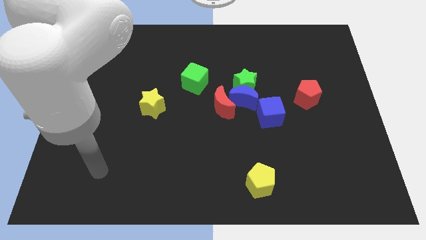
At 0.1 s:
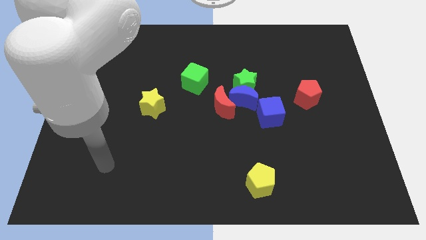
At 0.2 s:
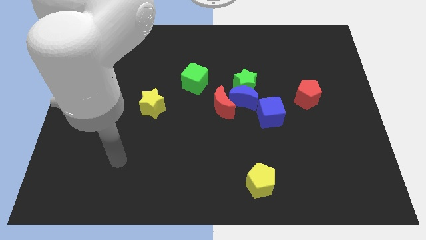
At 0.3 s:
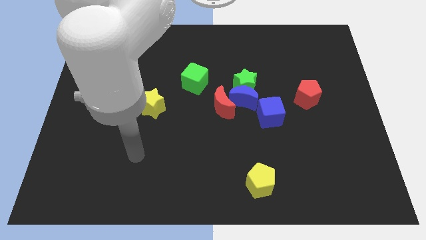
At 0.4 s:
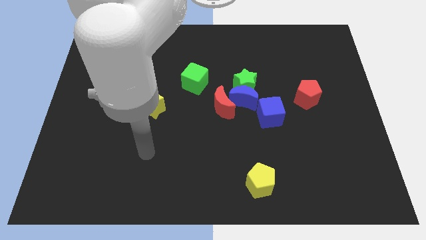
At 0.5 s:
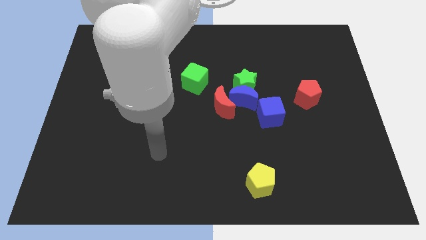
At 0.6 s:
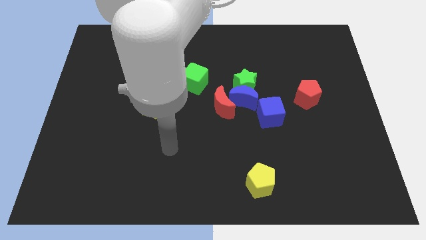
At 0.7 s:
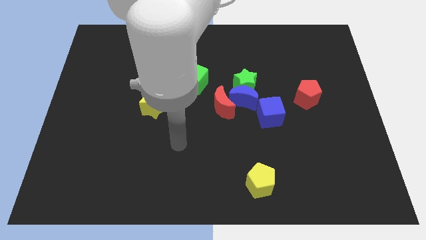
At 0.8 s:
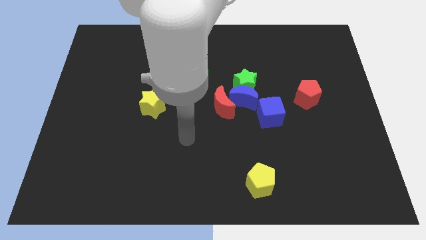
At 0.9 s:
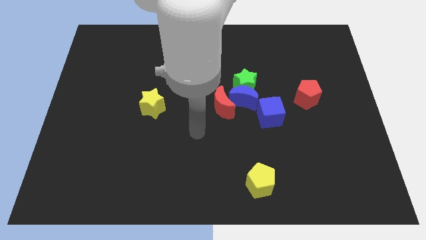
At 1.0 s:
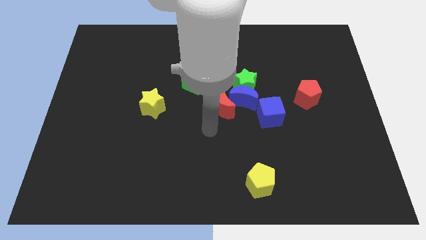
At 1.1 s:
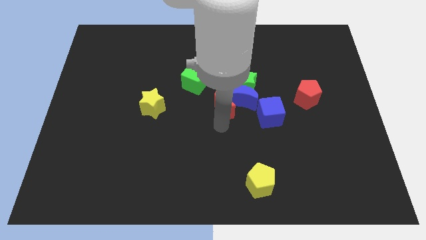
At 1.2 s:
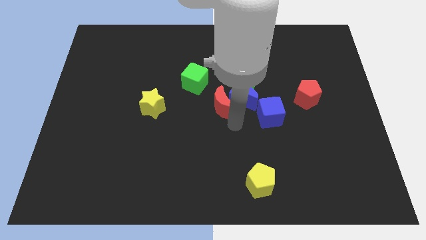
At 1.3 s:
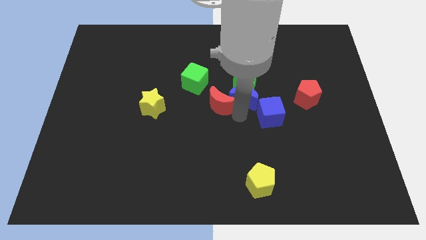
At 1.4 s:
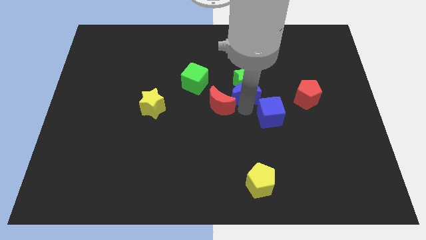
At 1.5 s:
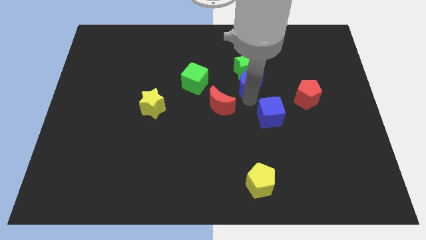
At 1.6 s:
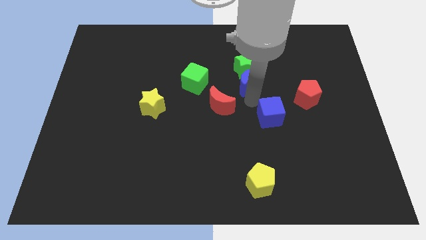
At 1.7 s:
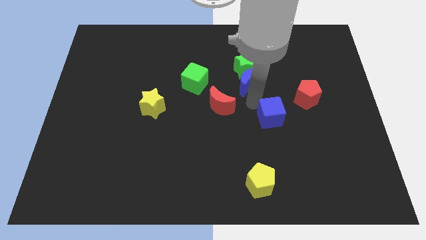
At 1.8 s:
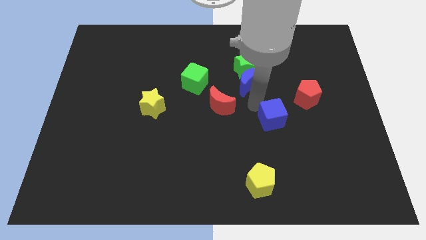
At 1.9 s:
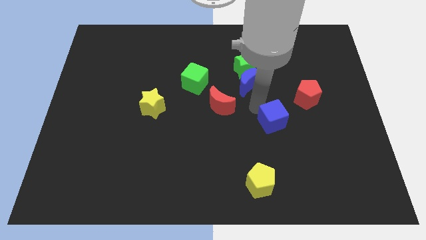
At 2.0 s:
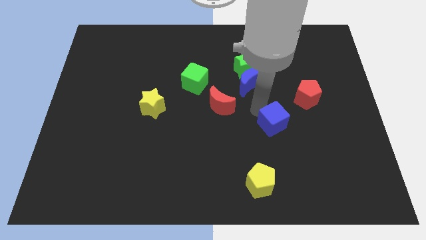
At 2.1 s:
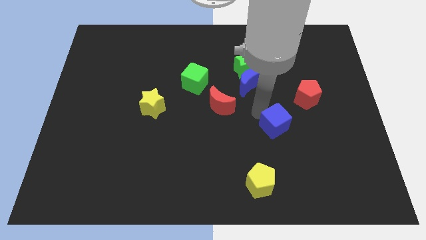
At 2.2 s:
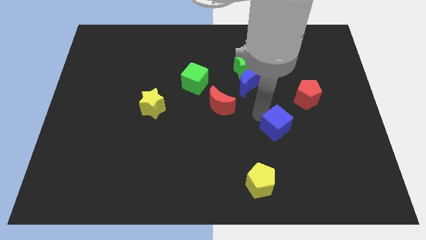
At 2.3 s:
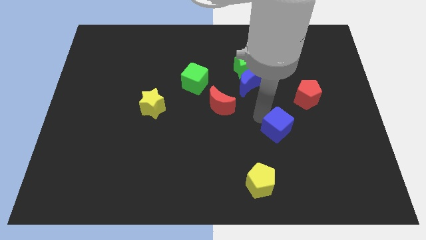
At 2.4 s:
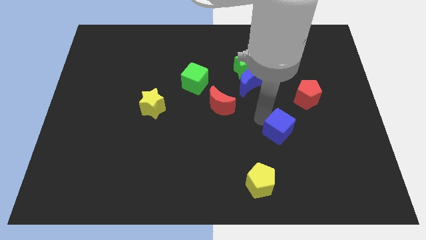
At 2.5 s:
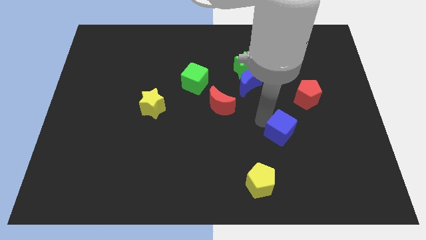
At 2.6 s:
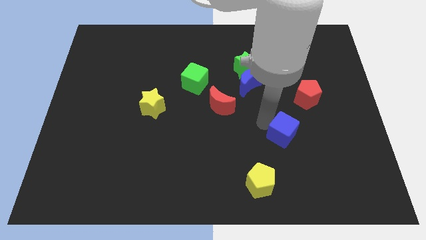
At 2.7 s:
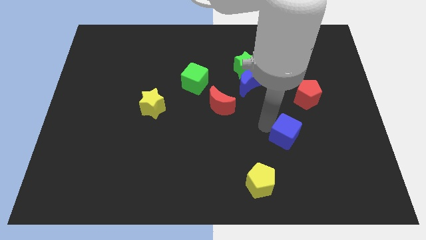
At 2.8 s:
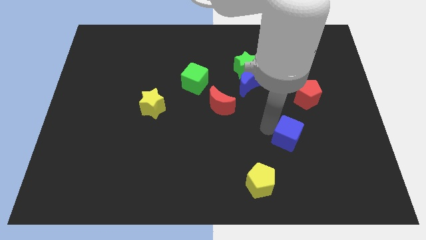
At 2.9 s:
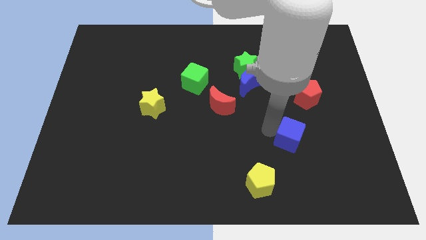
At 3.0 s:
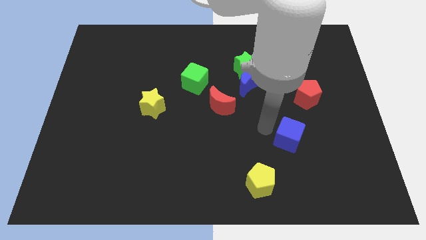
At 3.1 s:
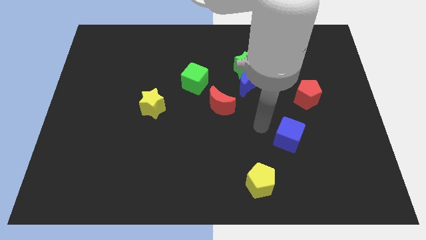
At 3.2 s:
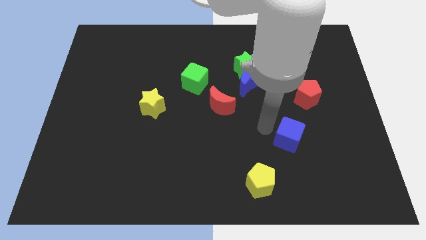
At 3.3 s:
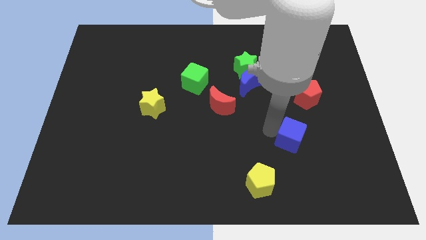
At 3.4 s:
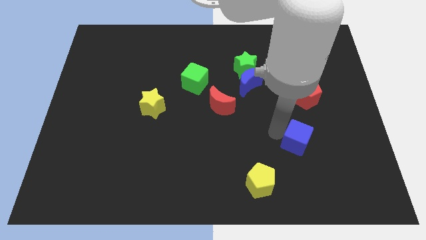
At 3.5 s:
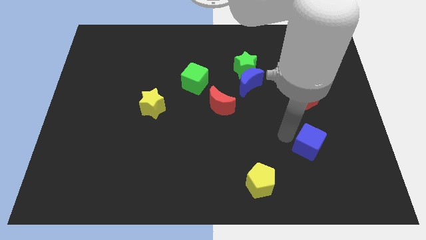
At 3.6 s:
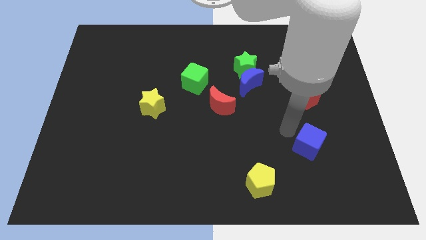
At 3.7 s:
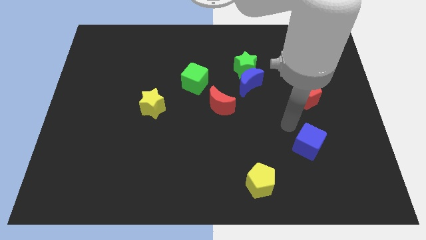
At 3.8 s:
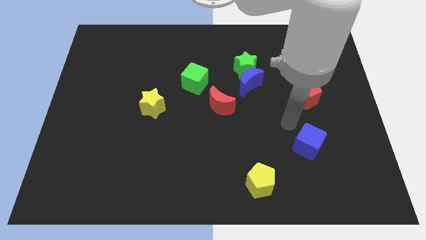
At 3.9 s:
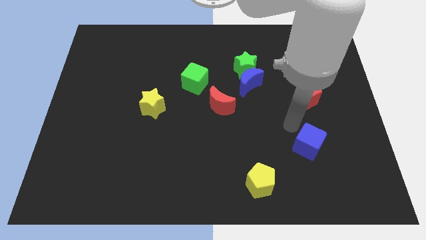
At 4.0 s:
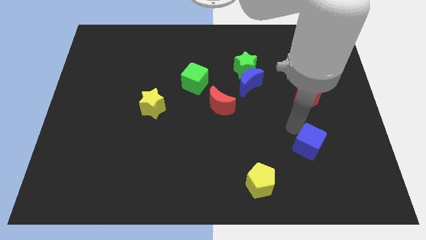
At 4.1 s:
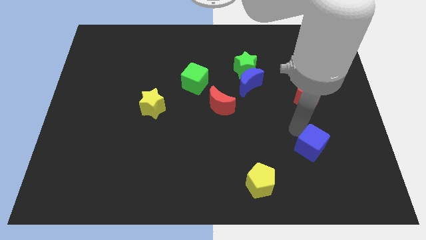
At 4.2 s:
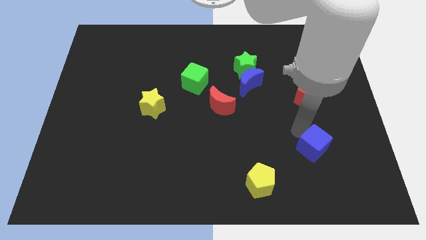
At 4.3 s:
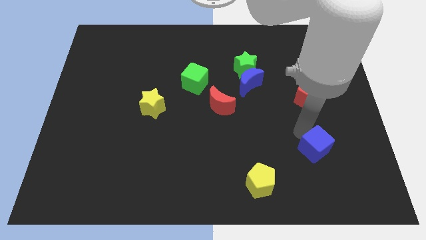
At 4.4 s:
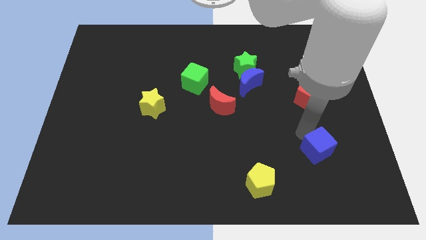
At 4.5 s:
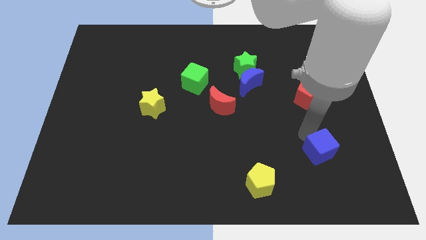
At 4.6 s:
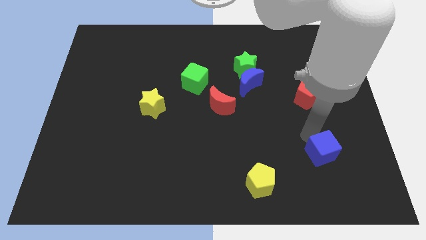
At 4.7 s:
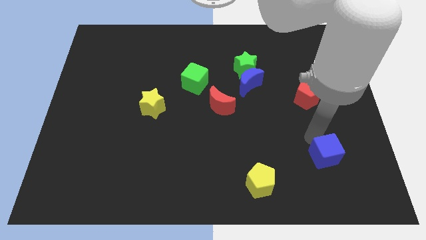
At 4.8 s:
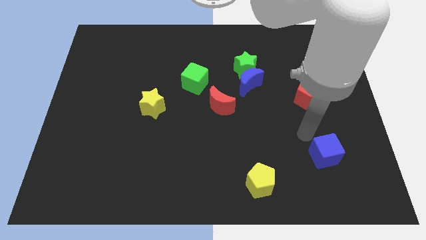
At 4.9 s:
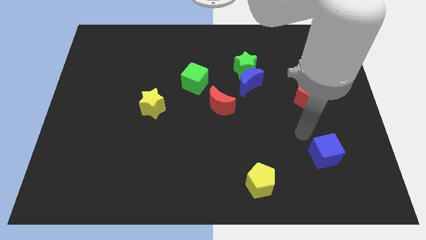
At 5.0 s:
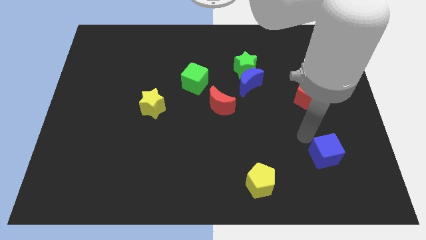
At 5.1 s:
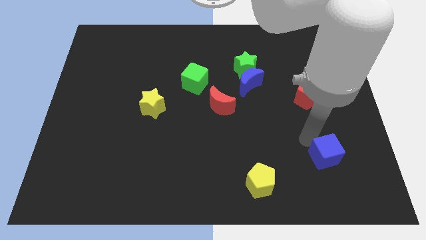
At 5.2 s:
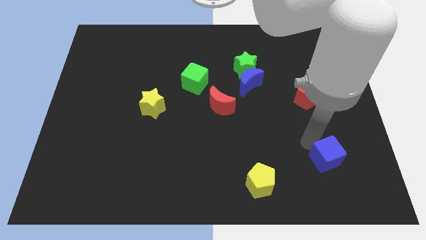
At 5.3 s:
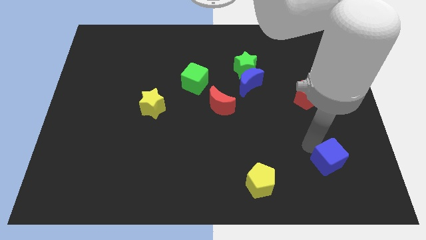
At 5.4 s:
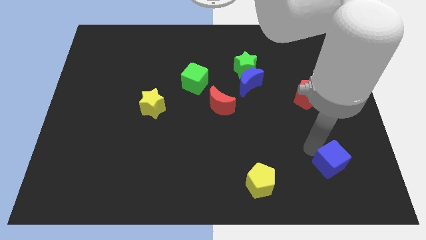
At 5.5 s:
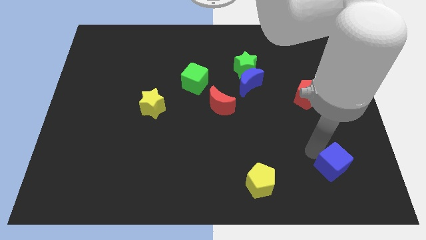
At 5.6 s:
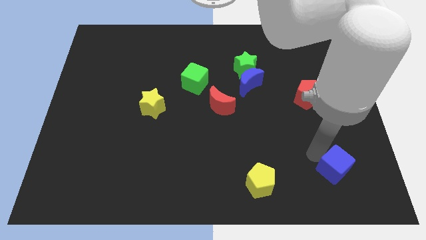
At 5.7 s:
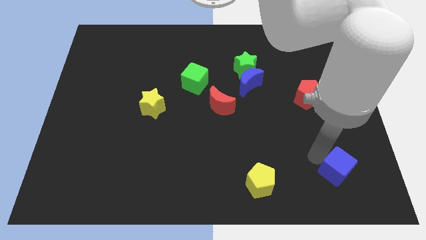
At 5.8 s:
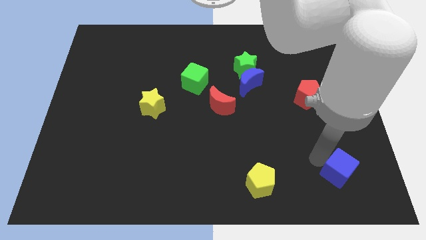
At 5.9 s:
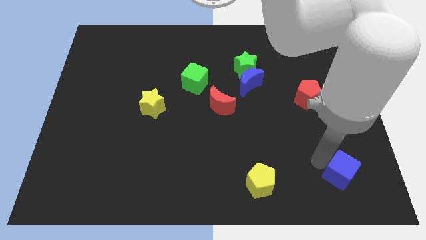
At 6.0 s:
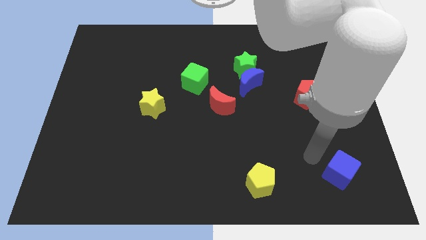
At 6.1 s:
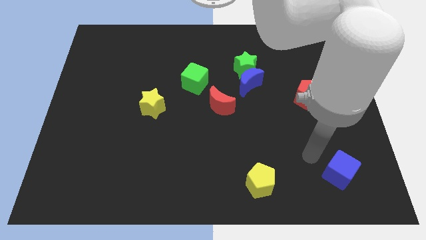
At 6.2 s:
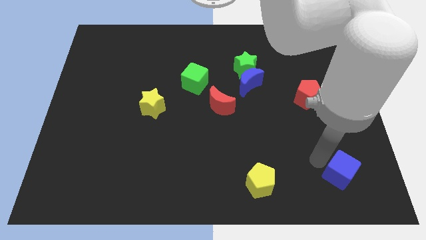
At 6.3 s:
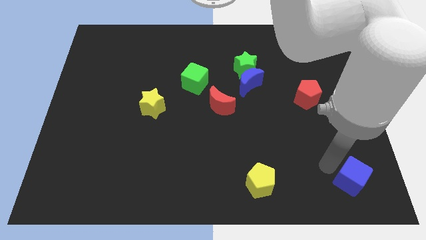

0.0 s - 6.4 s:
slide the blue cube to the bottom right of the board
